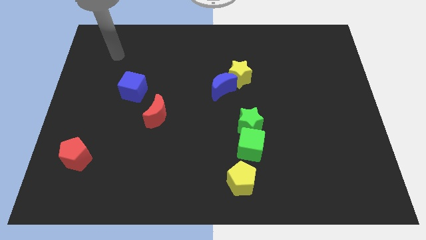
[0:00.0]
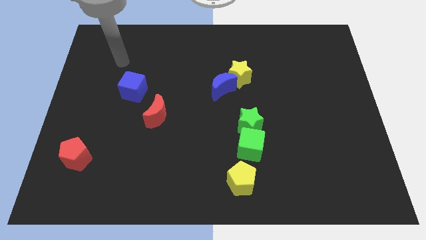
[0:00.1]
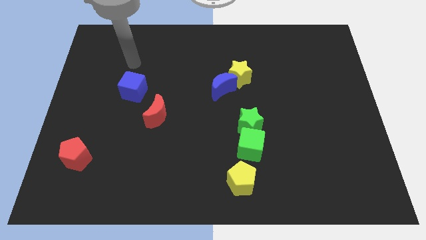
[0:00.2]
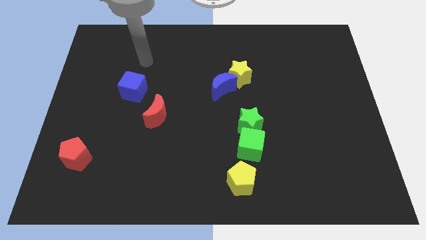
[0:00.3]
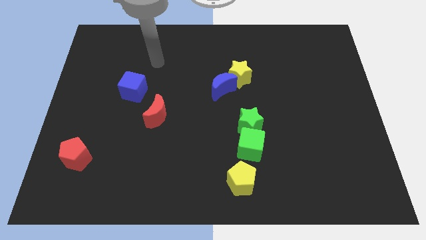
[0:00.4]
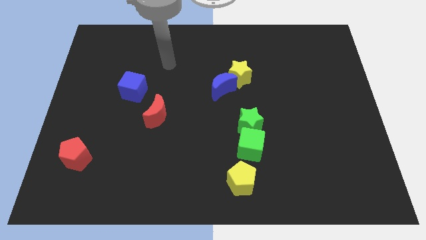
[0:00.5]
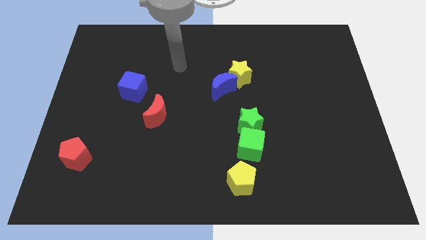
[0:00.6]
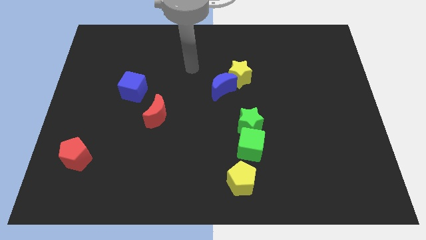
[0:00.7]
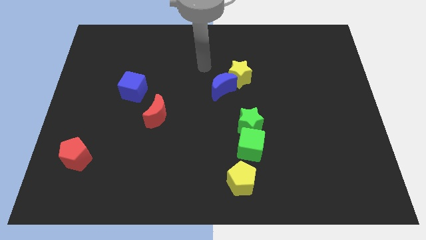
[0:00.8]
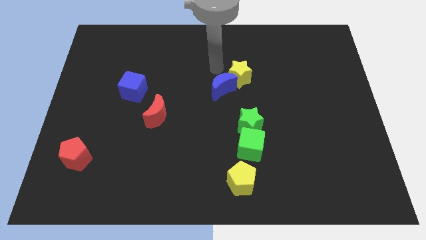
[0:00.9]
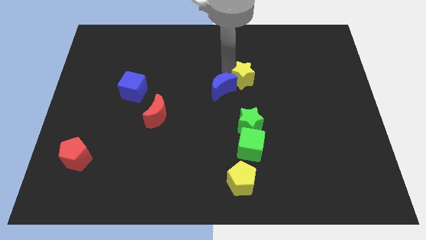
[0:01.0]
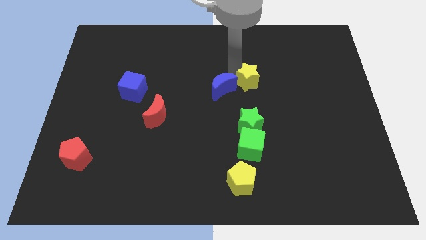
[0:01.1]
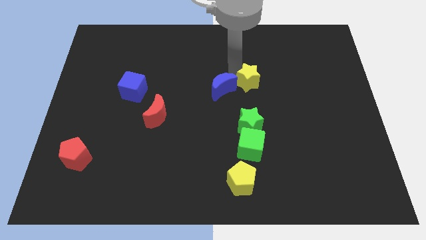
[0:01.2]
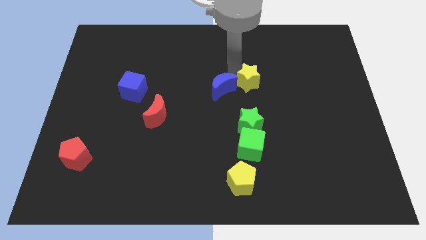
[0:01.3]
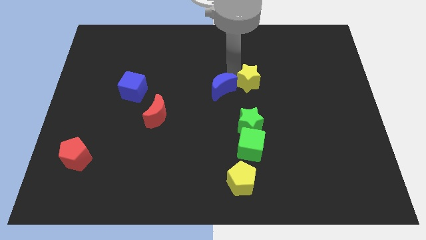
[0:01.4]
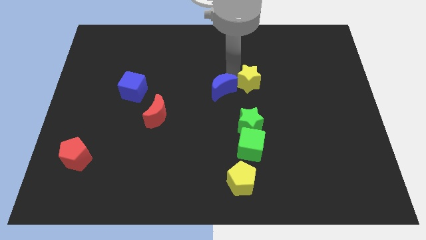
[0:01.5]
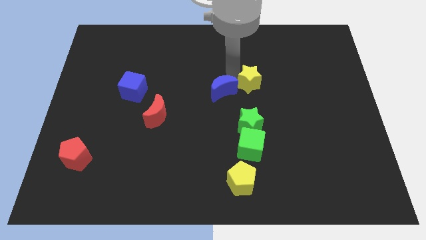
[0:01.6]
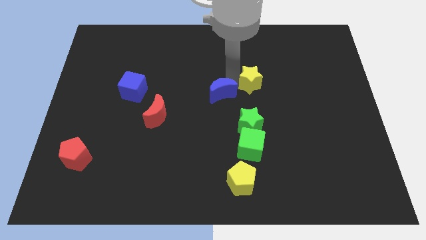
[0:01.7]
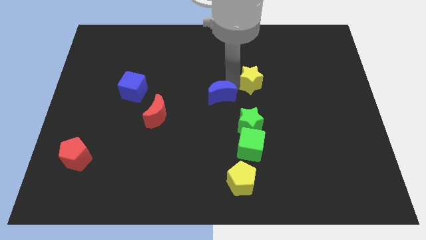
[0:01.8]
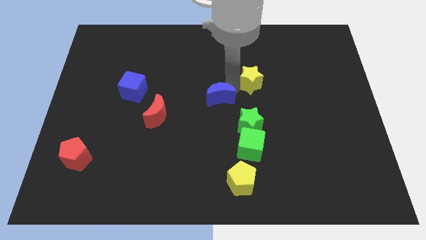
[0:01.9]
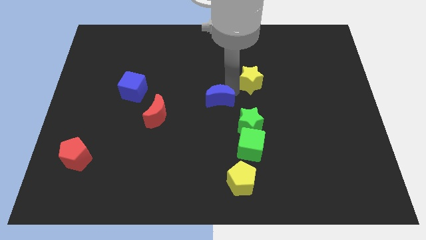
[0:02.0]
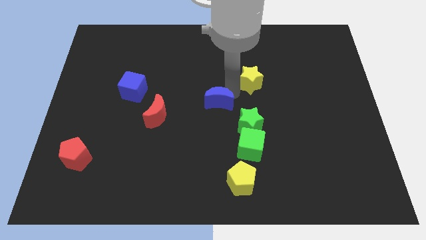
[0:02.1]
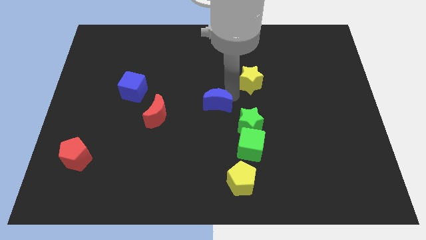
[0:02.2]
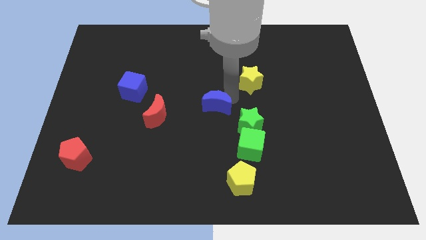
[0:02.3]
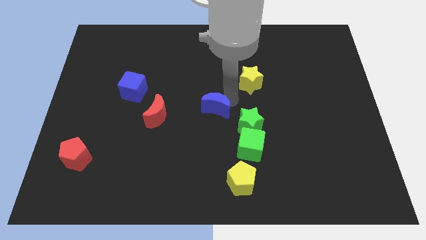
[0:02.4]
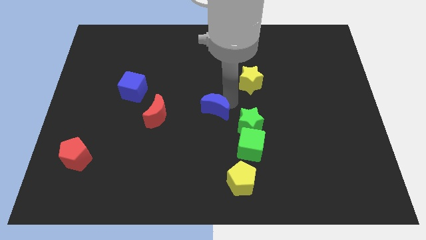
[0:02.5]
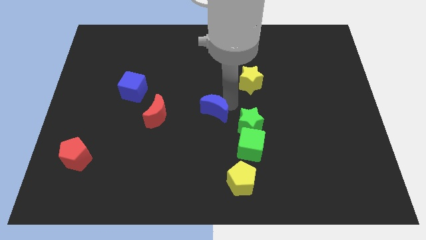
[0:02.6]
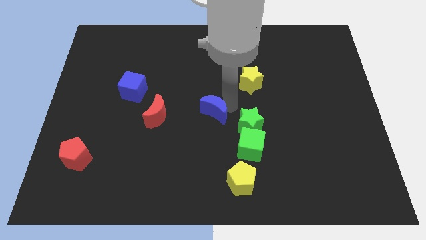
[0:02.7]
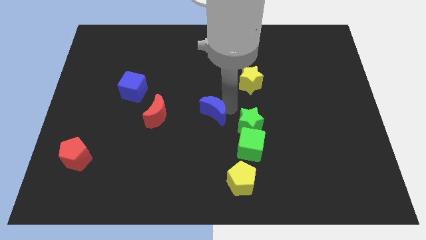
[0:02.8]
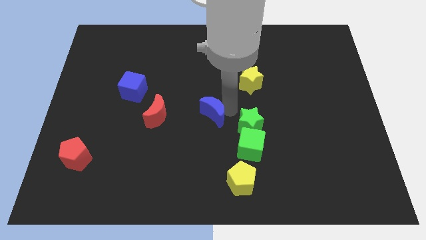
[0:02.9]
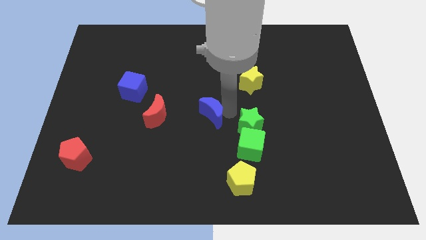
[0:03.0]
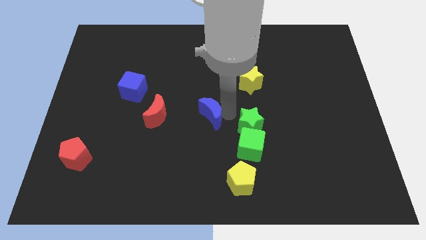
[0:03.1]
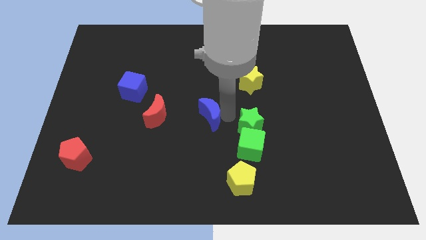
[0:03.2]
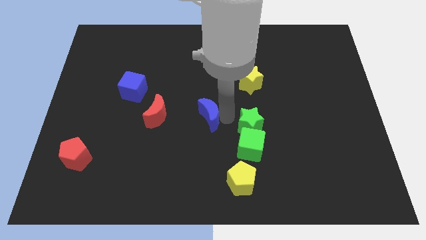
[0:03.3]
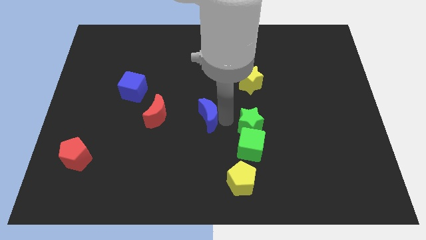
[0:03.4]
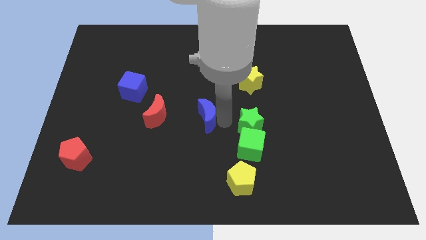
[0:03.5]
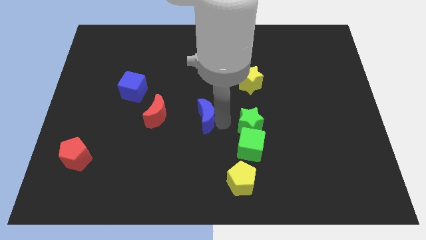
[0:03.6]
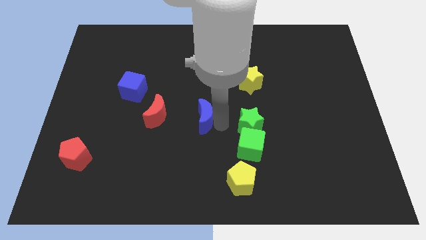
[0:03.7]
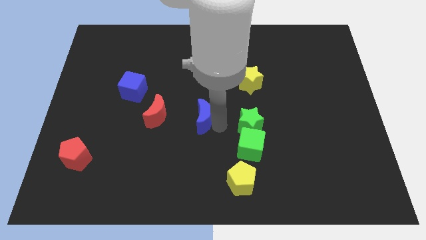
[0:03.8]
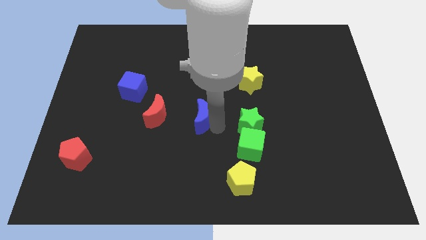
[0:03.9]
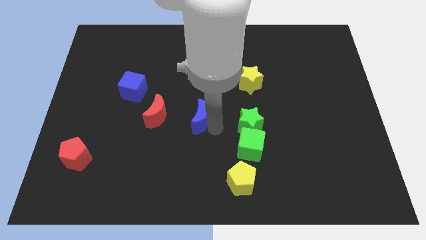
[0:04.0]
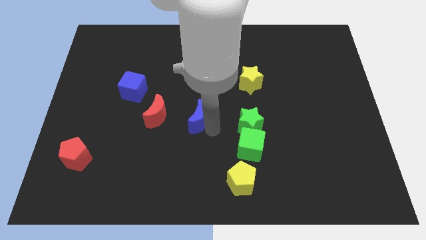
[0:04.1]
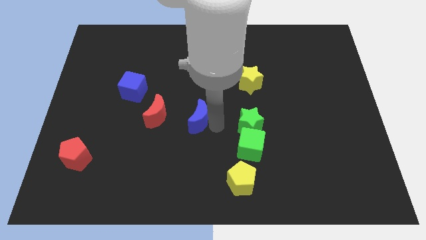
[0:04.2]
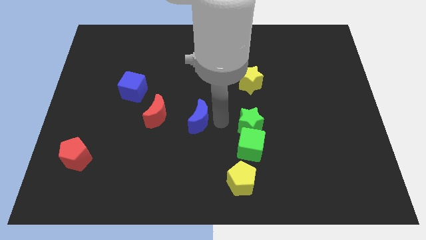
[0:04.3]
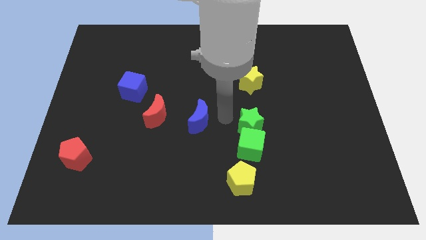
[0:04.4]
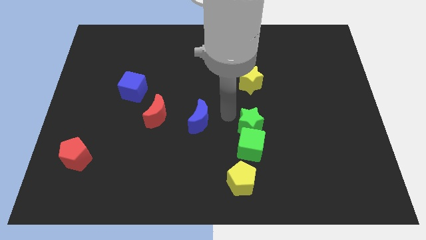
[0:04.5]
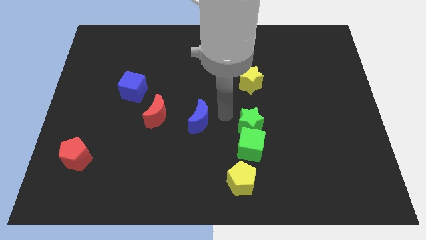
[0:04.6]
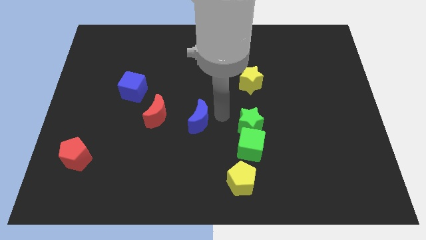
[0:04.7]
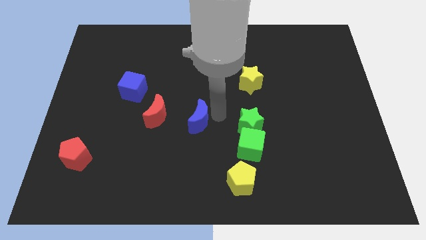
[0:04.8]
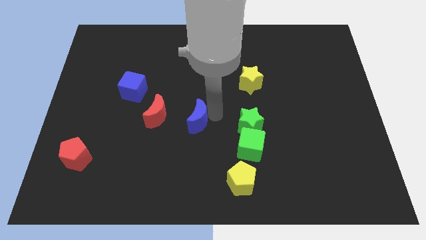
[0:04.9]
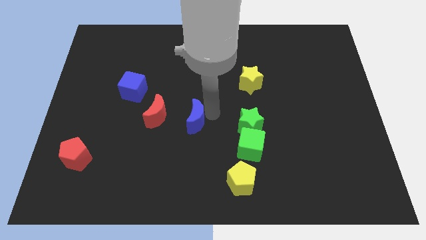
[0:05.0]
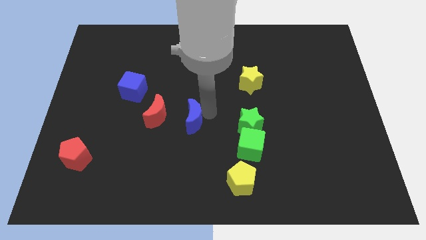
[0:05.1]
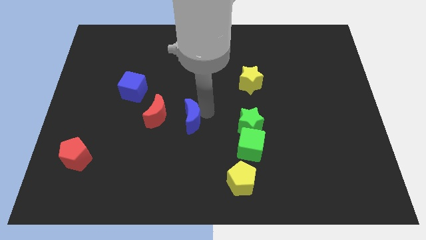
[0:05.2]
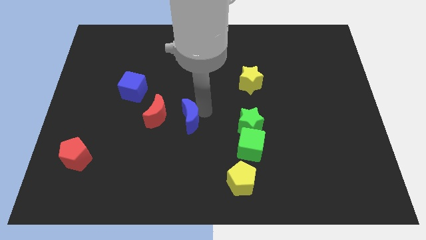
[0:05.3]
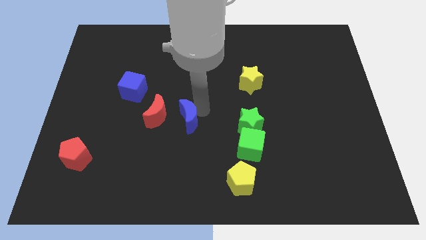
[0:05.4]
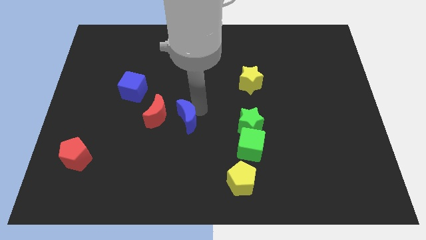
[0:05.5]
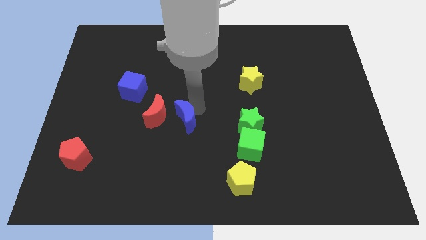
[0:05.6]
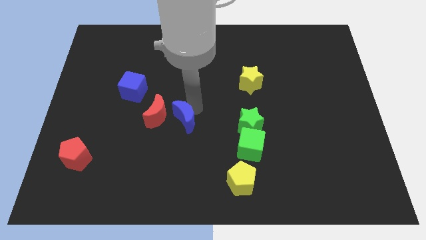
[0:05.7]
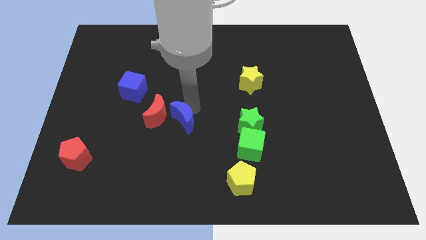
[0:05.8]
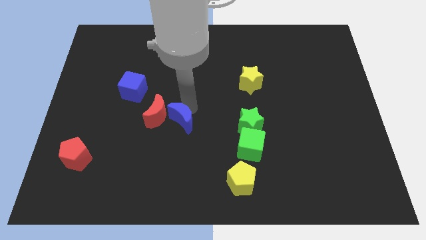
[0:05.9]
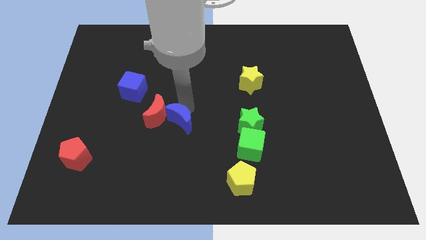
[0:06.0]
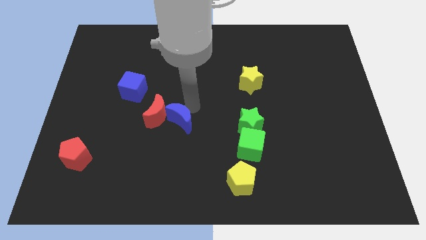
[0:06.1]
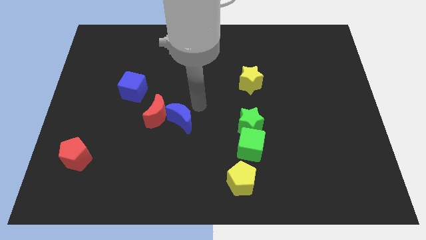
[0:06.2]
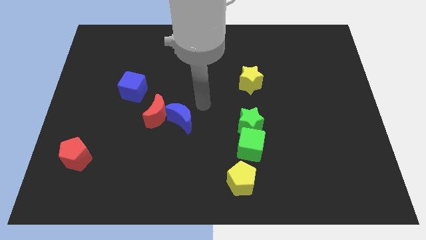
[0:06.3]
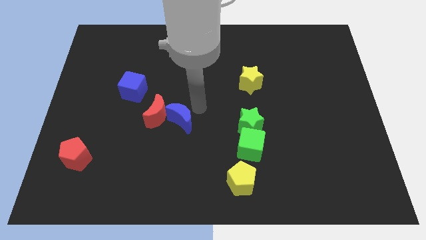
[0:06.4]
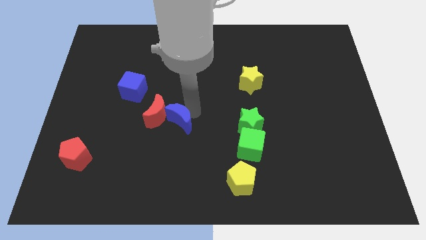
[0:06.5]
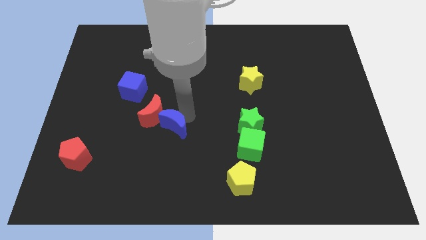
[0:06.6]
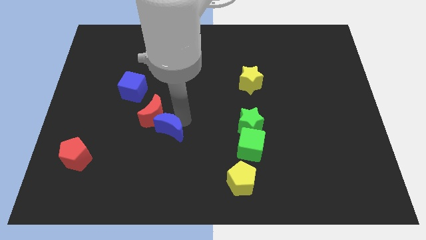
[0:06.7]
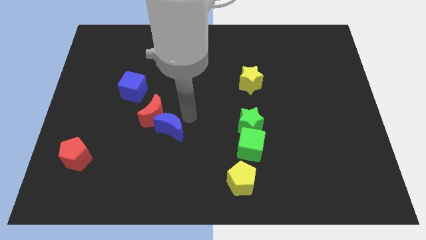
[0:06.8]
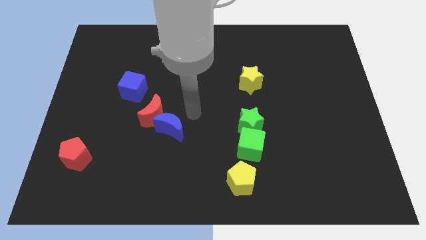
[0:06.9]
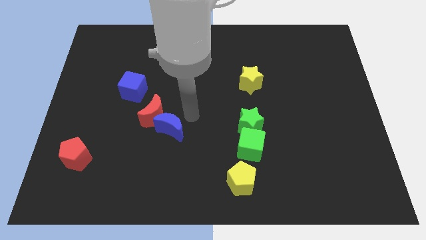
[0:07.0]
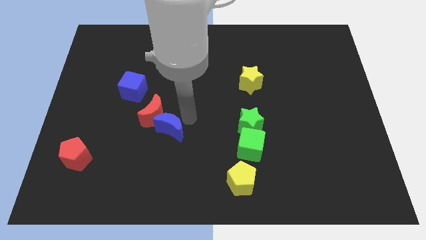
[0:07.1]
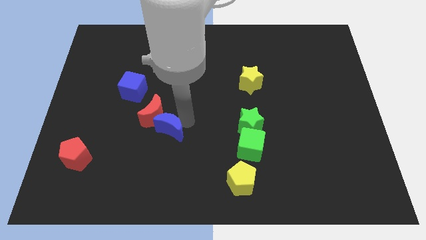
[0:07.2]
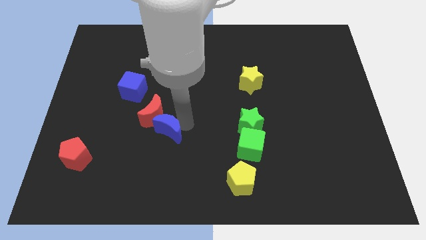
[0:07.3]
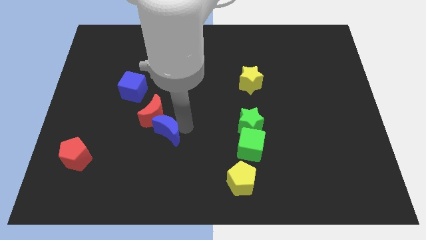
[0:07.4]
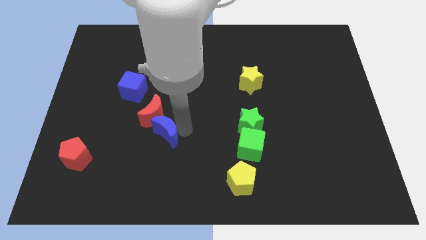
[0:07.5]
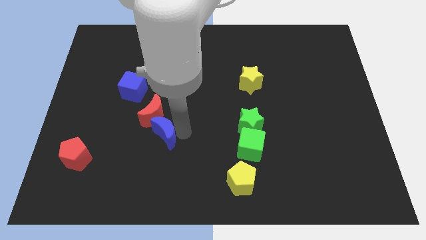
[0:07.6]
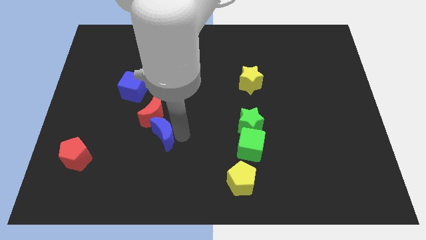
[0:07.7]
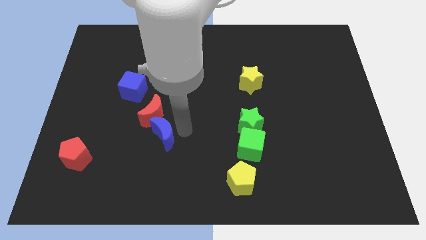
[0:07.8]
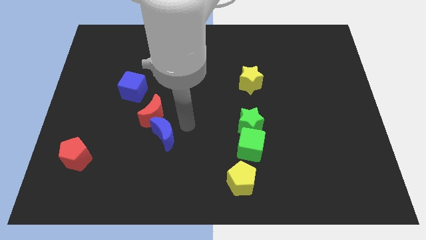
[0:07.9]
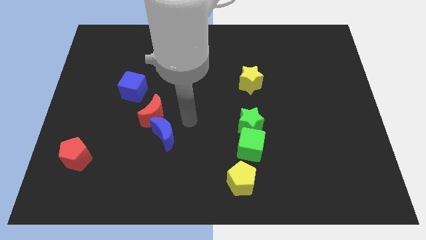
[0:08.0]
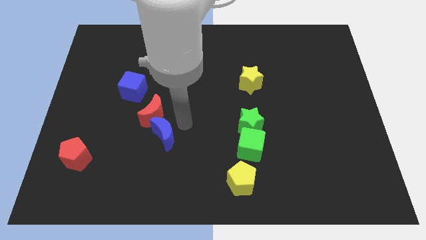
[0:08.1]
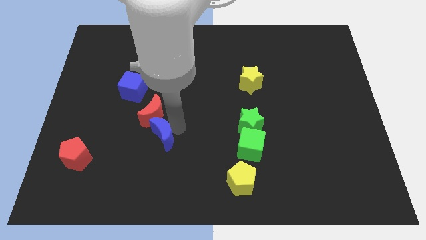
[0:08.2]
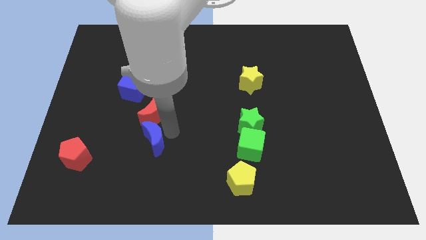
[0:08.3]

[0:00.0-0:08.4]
move the blue moon down and then left
